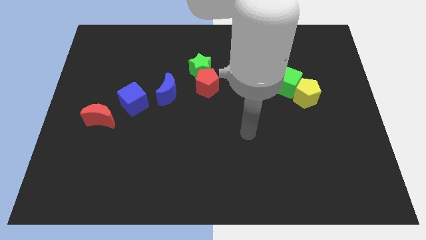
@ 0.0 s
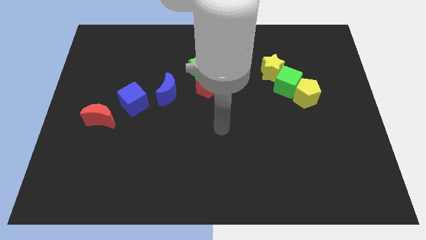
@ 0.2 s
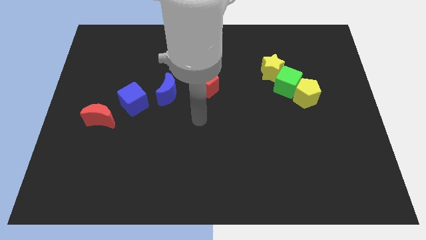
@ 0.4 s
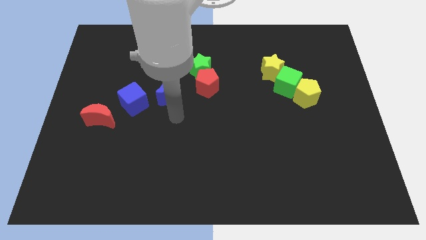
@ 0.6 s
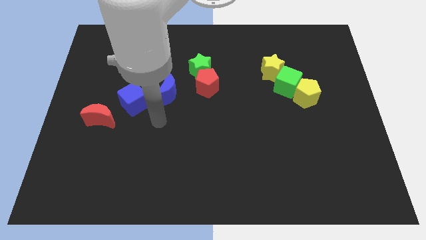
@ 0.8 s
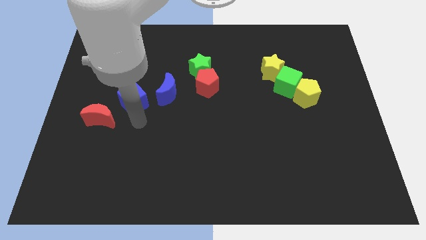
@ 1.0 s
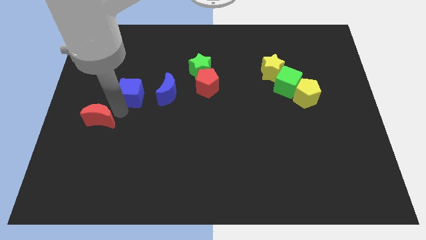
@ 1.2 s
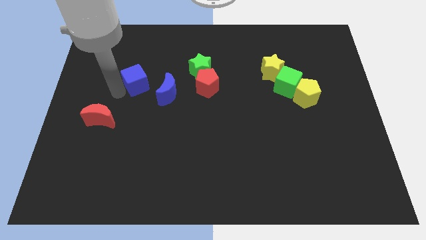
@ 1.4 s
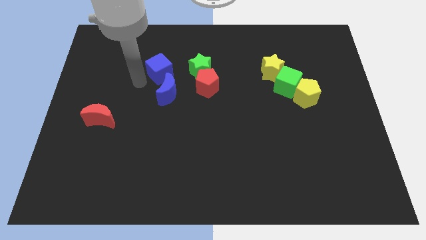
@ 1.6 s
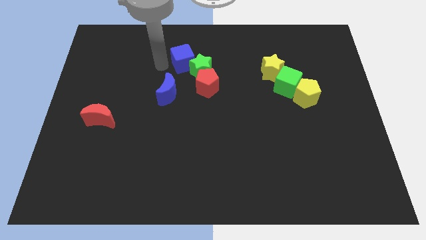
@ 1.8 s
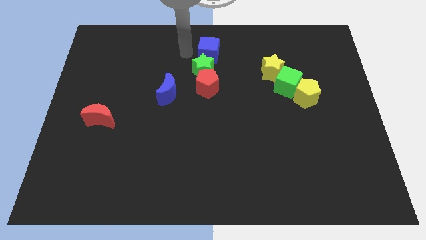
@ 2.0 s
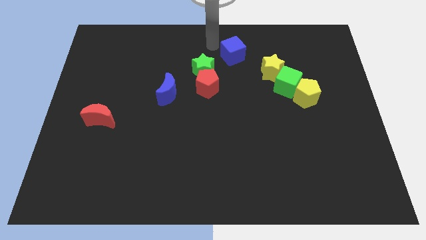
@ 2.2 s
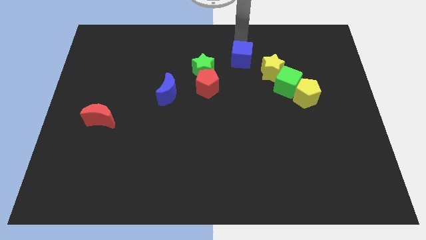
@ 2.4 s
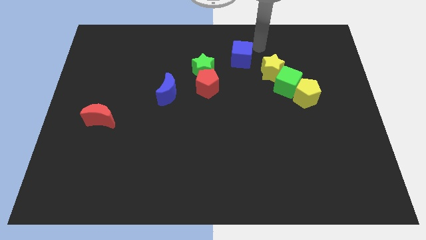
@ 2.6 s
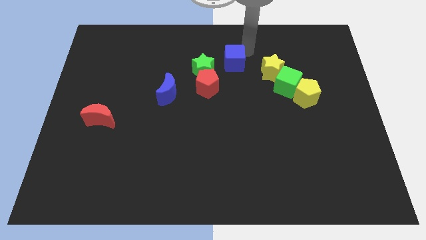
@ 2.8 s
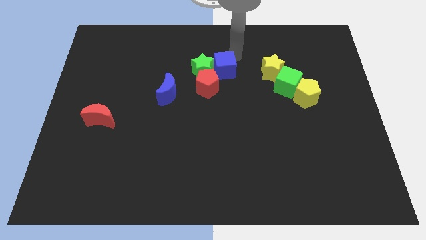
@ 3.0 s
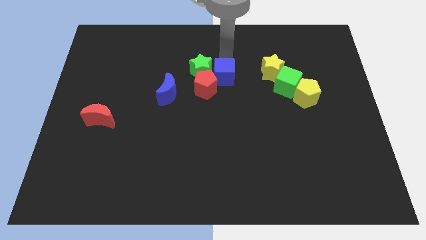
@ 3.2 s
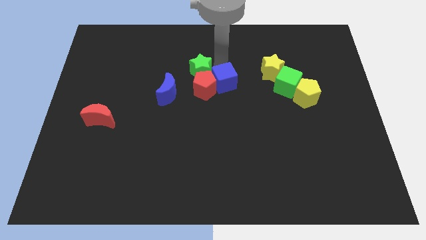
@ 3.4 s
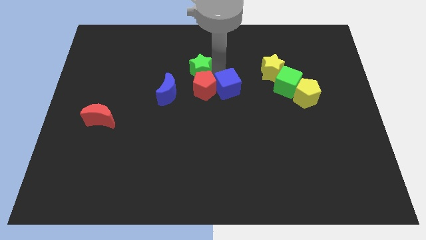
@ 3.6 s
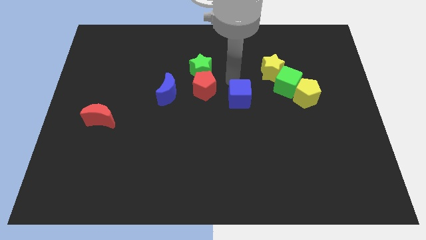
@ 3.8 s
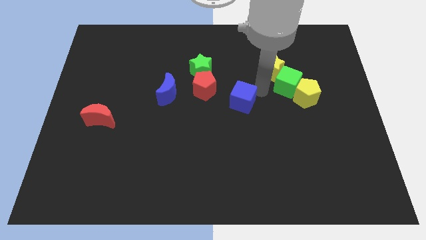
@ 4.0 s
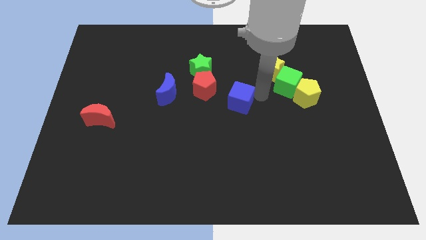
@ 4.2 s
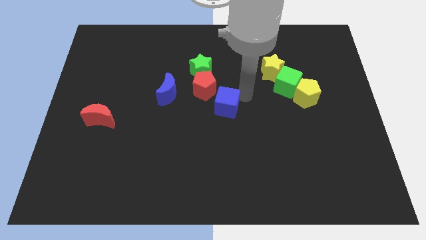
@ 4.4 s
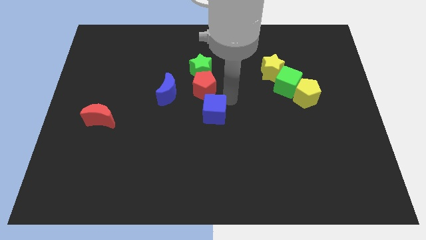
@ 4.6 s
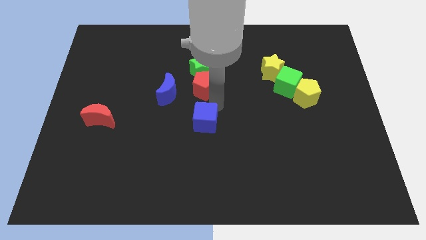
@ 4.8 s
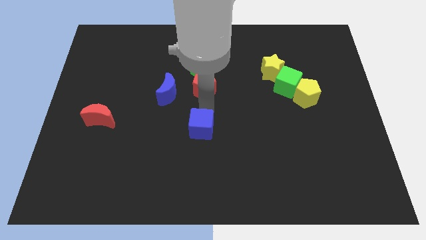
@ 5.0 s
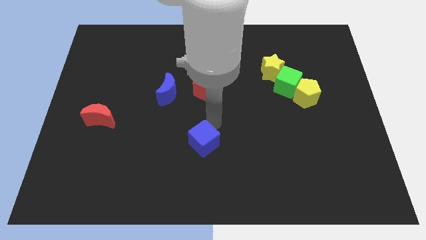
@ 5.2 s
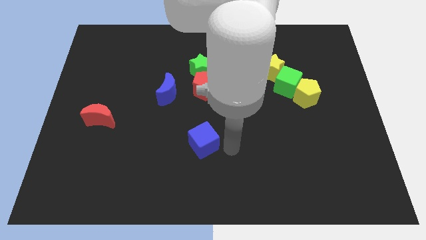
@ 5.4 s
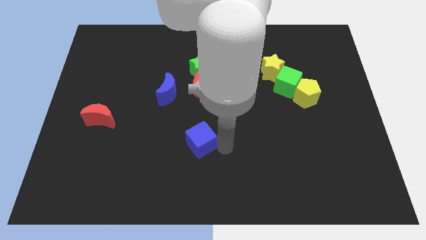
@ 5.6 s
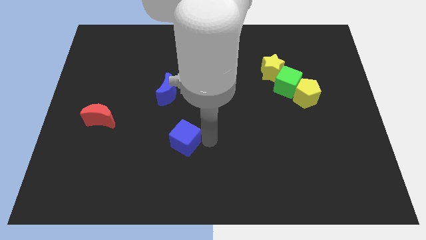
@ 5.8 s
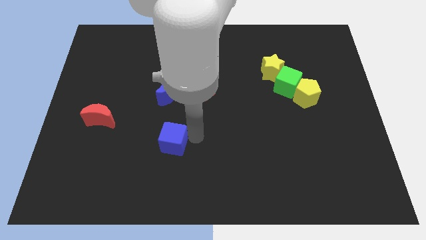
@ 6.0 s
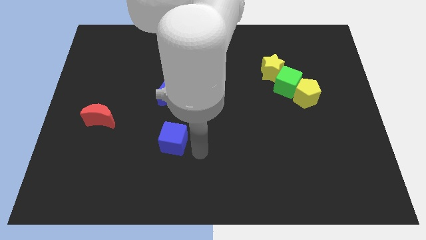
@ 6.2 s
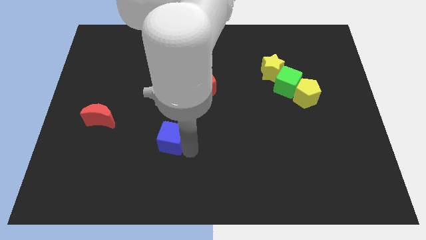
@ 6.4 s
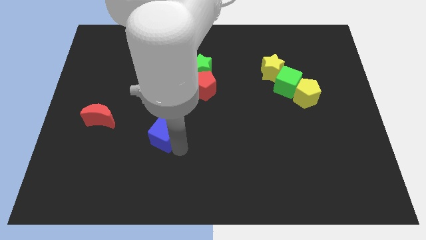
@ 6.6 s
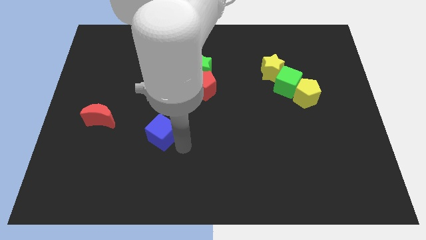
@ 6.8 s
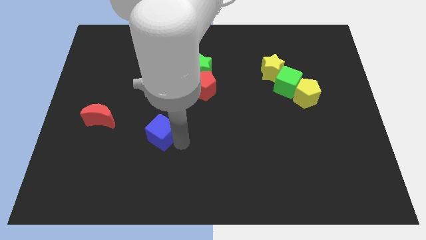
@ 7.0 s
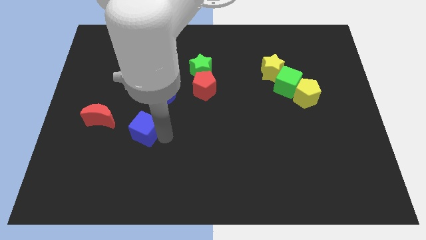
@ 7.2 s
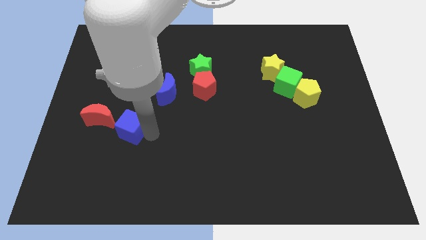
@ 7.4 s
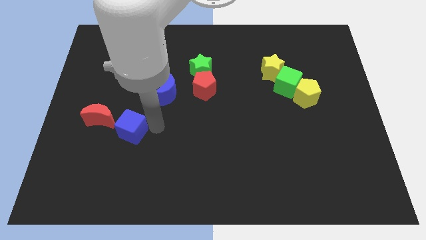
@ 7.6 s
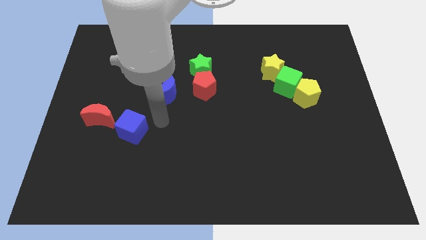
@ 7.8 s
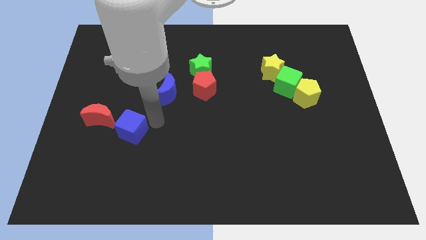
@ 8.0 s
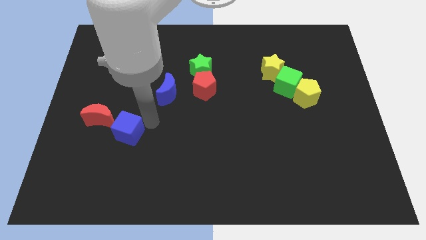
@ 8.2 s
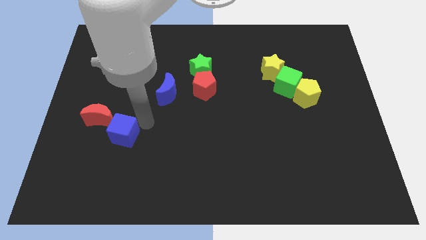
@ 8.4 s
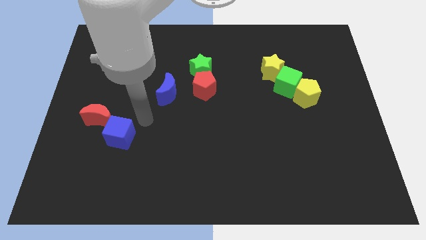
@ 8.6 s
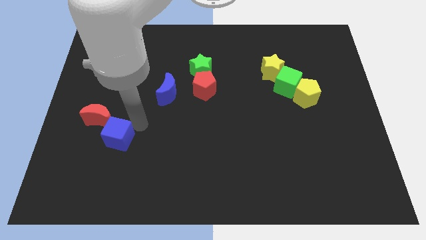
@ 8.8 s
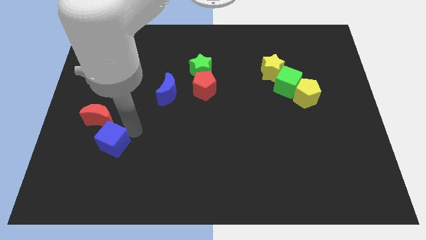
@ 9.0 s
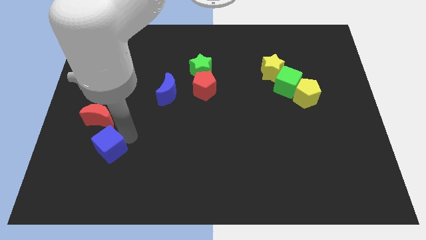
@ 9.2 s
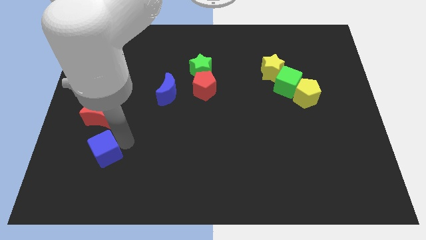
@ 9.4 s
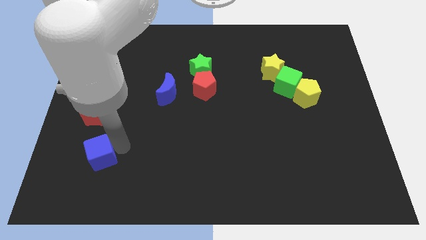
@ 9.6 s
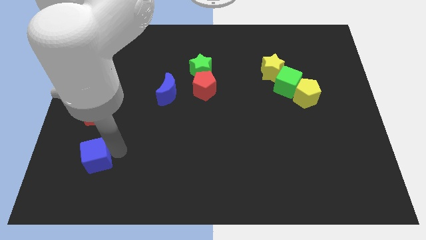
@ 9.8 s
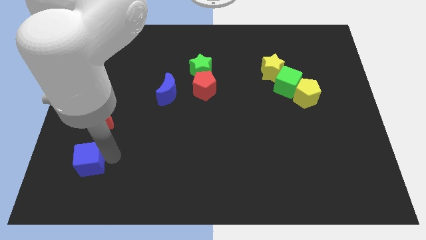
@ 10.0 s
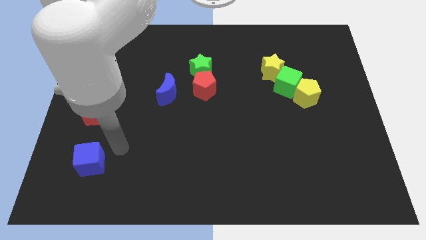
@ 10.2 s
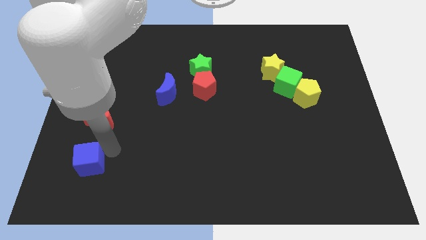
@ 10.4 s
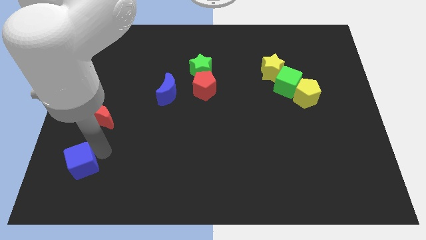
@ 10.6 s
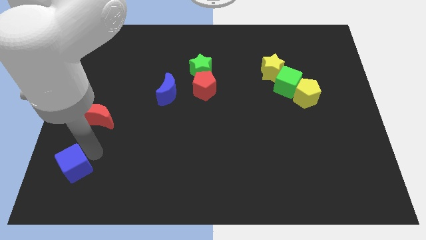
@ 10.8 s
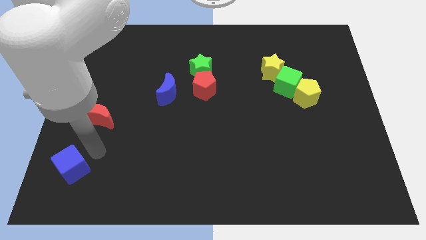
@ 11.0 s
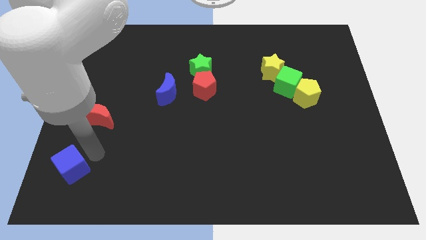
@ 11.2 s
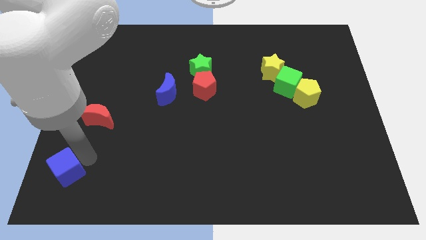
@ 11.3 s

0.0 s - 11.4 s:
put the blue cube to the bottom left of the board

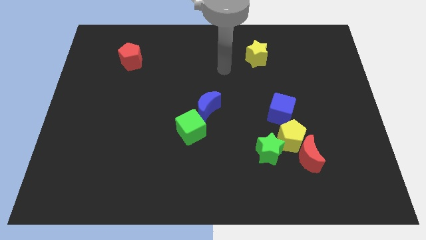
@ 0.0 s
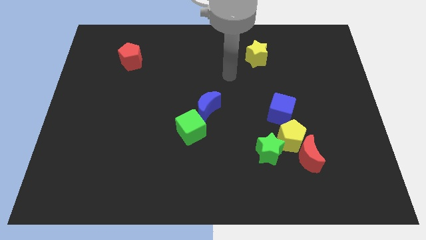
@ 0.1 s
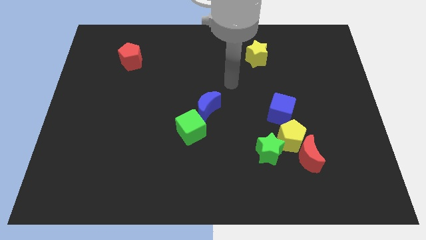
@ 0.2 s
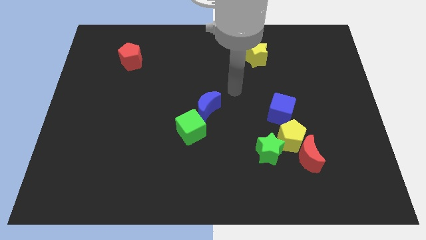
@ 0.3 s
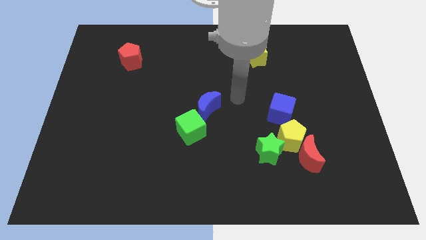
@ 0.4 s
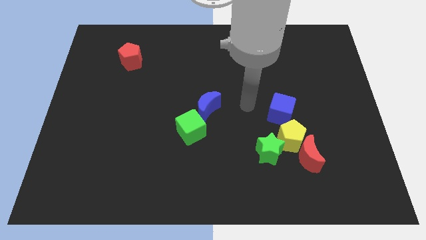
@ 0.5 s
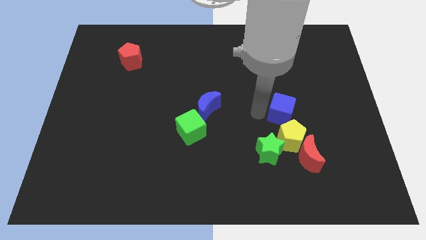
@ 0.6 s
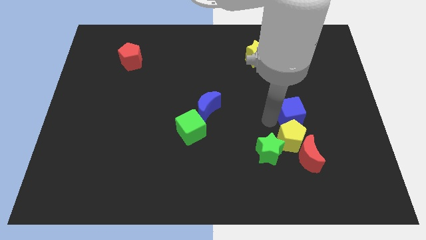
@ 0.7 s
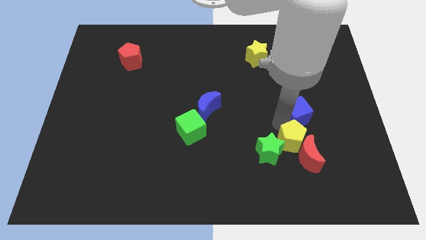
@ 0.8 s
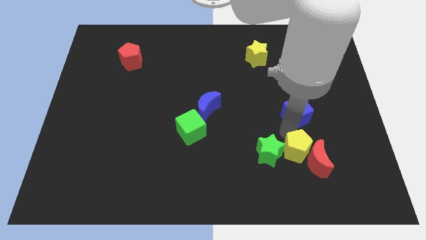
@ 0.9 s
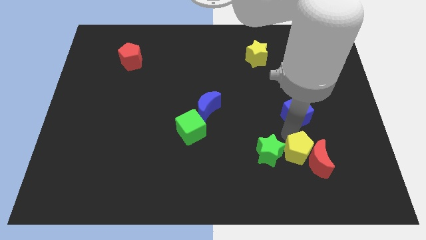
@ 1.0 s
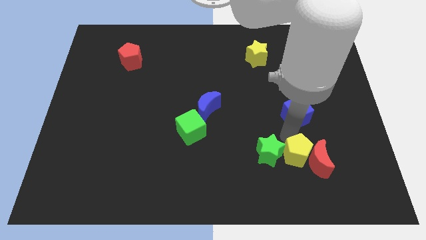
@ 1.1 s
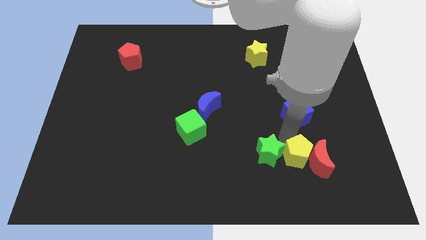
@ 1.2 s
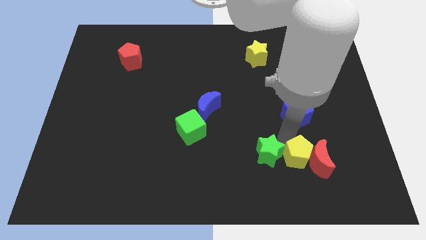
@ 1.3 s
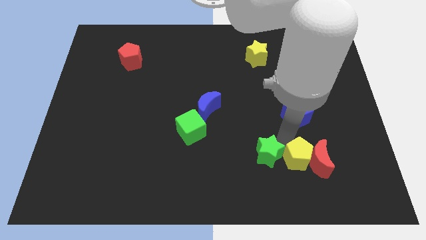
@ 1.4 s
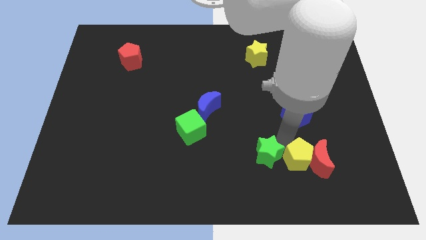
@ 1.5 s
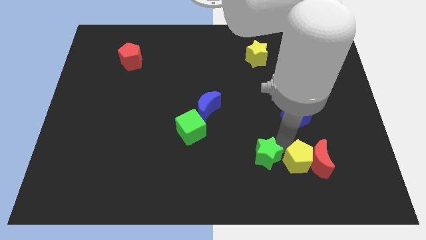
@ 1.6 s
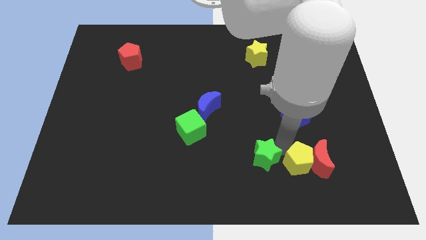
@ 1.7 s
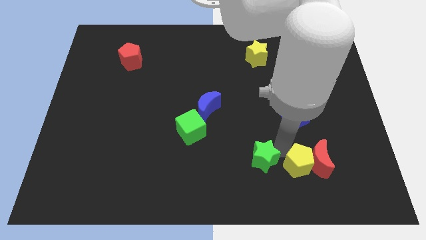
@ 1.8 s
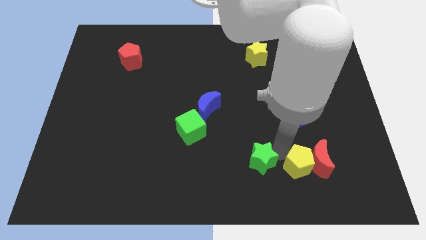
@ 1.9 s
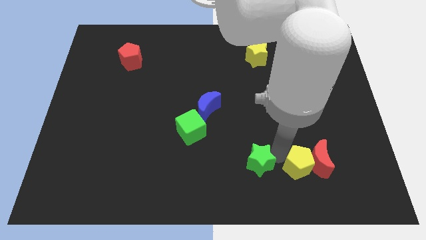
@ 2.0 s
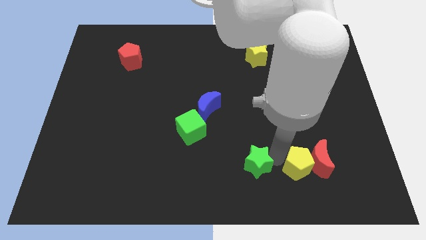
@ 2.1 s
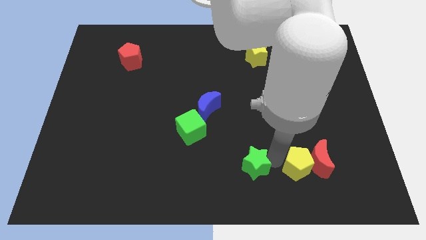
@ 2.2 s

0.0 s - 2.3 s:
slide the green star to the bottom side
